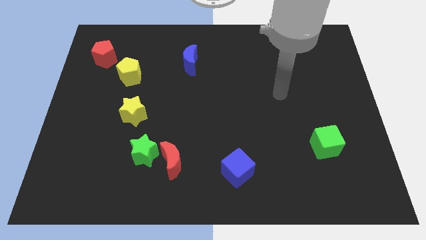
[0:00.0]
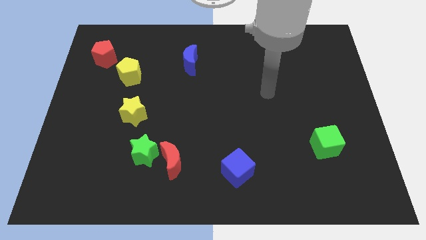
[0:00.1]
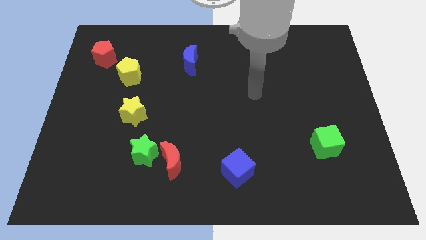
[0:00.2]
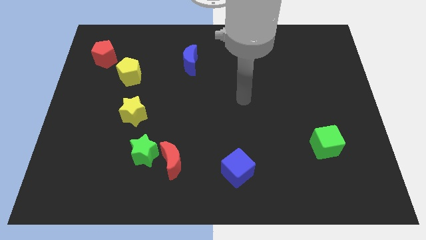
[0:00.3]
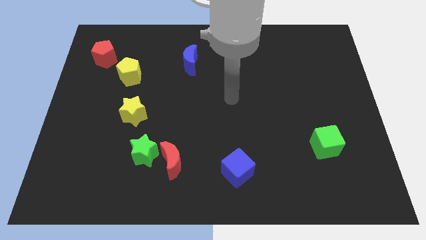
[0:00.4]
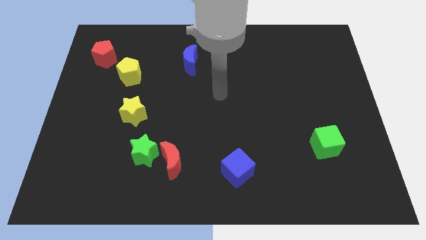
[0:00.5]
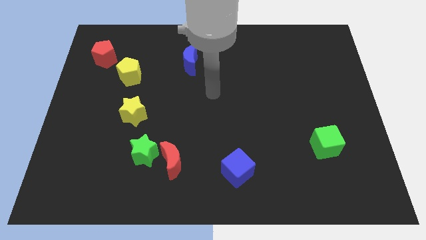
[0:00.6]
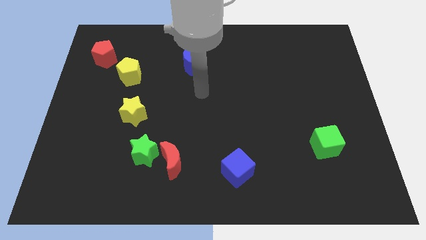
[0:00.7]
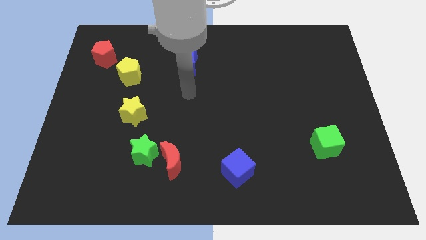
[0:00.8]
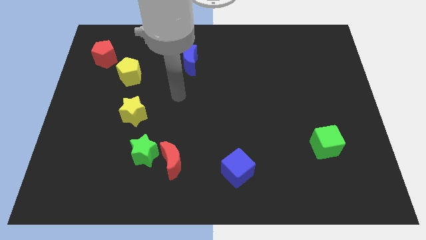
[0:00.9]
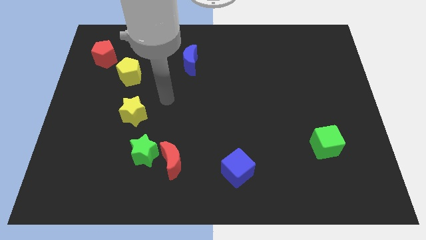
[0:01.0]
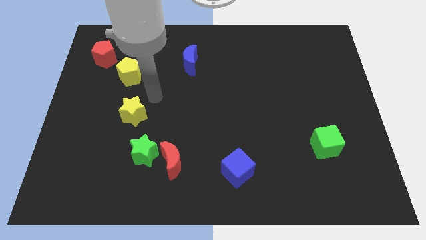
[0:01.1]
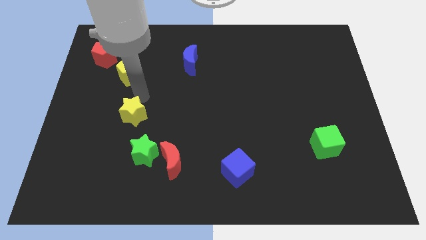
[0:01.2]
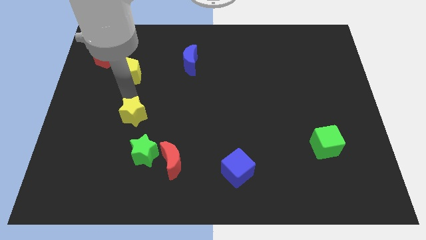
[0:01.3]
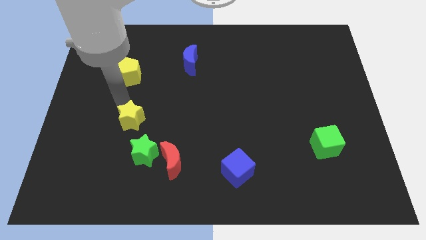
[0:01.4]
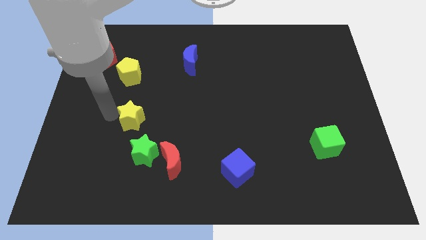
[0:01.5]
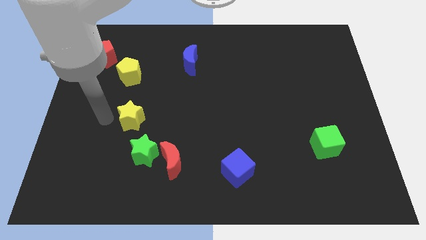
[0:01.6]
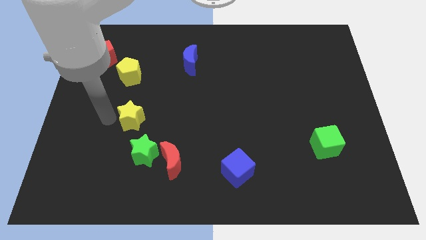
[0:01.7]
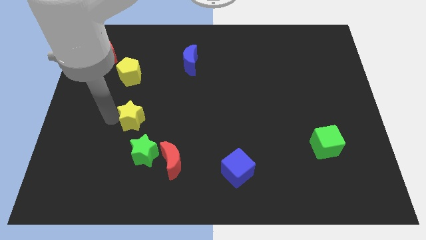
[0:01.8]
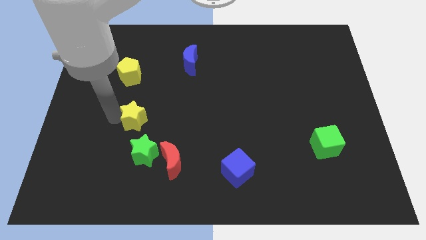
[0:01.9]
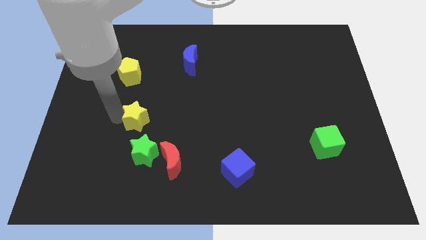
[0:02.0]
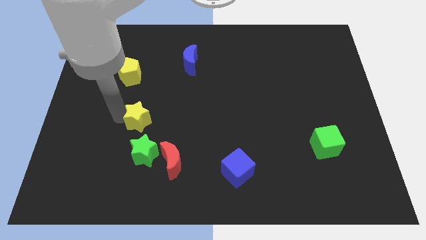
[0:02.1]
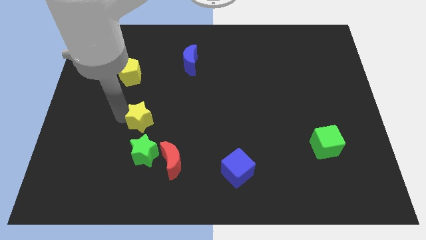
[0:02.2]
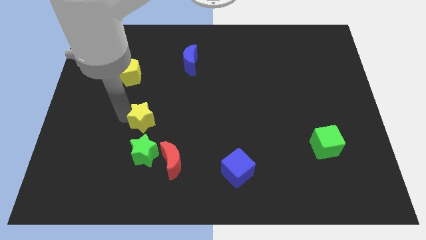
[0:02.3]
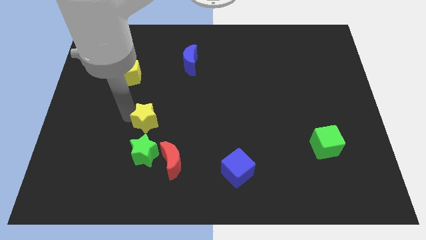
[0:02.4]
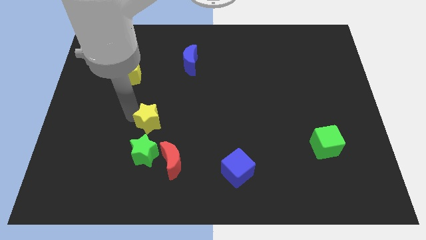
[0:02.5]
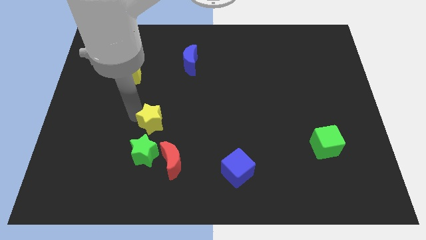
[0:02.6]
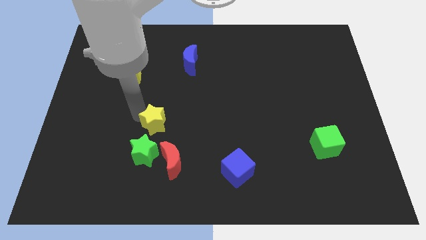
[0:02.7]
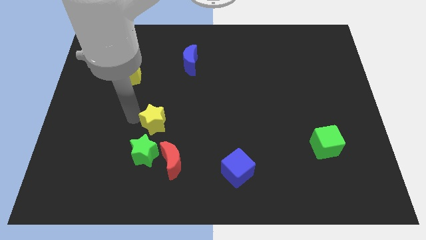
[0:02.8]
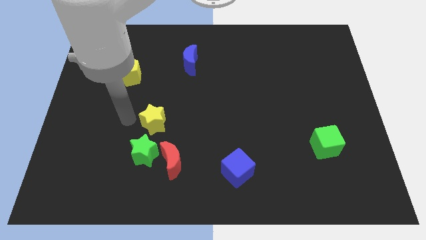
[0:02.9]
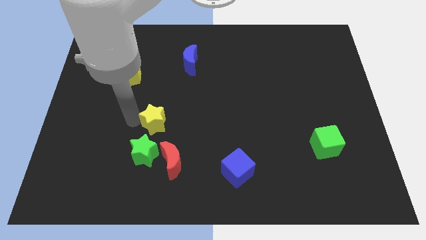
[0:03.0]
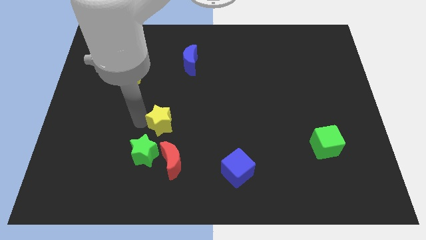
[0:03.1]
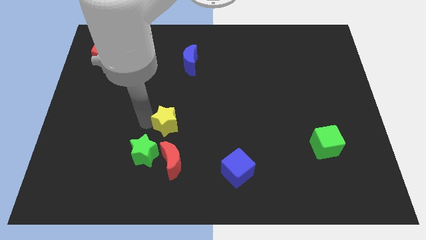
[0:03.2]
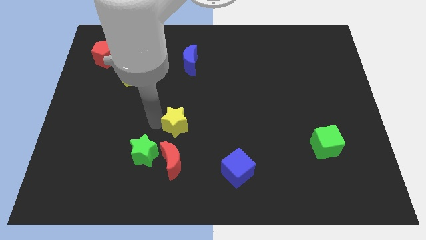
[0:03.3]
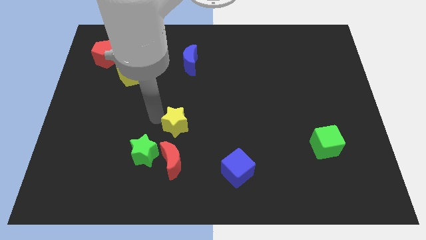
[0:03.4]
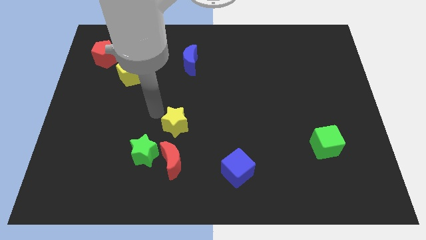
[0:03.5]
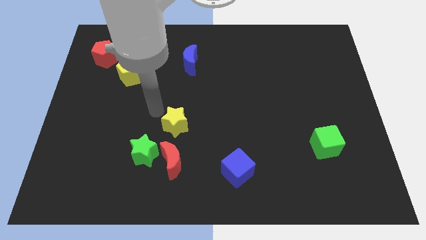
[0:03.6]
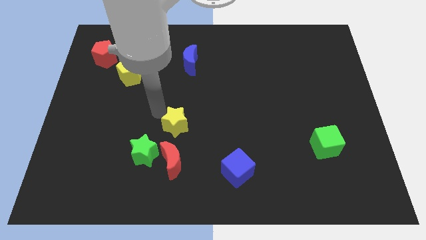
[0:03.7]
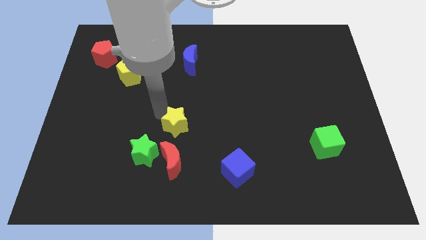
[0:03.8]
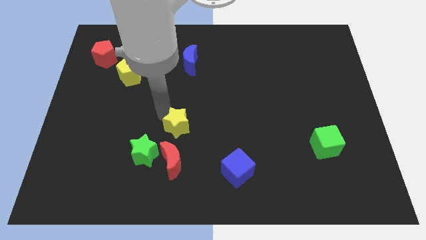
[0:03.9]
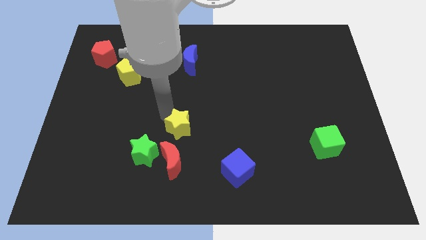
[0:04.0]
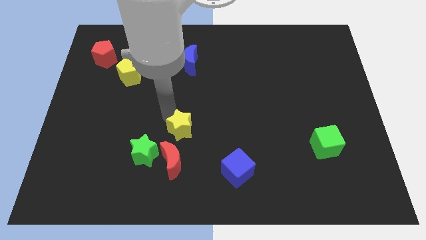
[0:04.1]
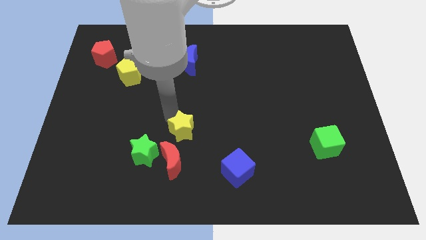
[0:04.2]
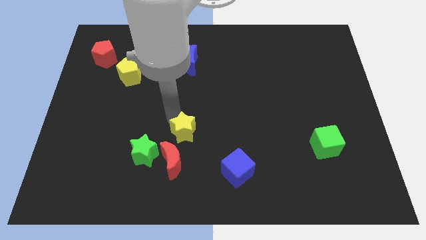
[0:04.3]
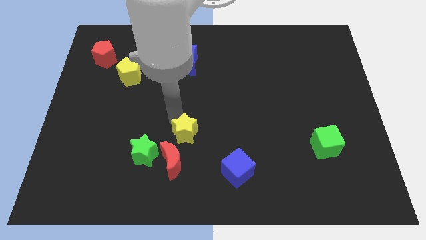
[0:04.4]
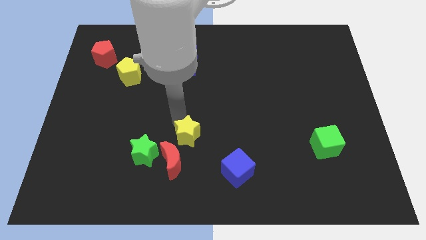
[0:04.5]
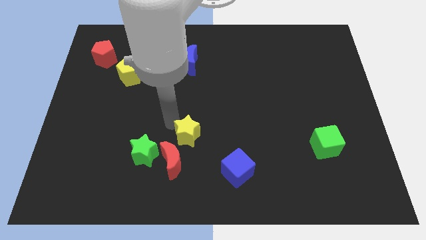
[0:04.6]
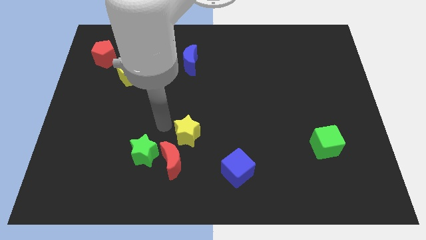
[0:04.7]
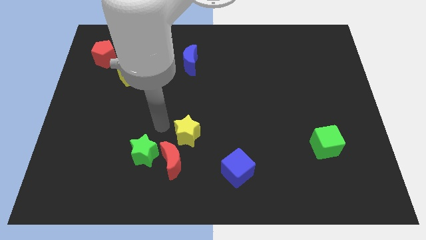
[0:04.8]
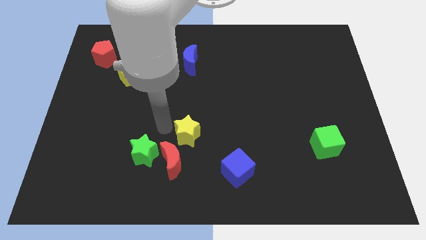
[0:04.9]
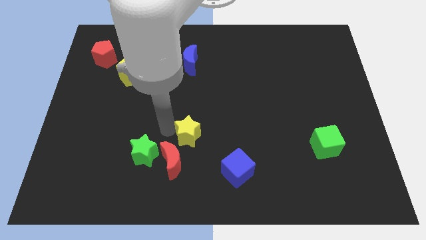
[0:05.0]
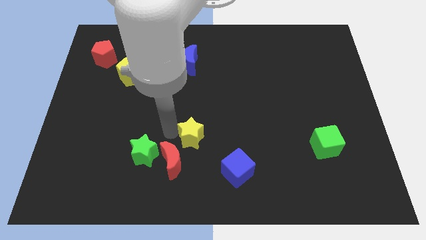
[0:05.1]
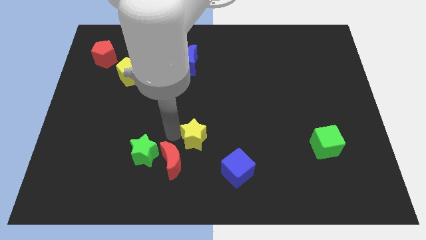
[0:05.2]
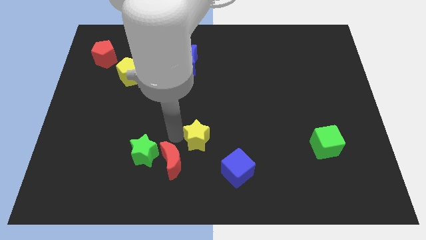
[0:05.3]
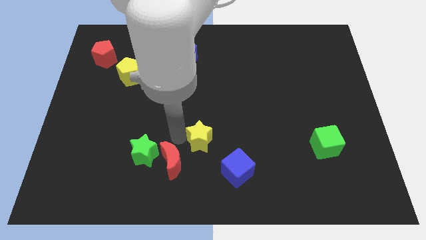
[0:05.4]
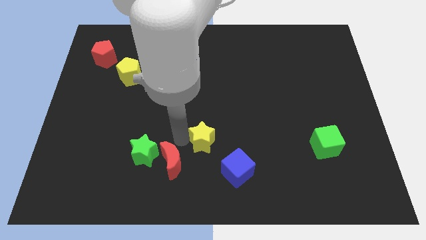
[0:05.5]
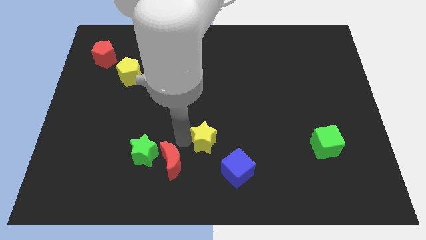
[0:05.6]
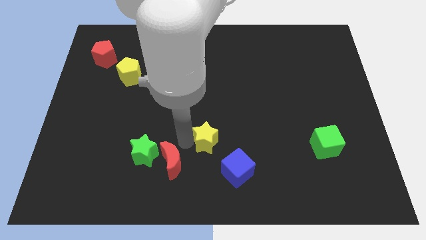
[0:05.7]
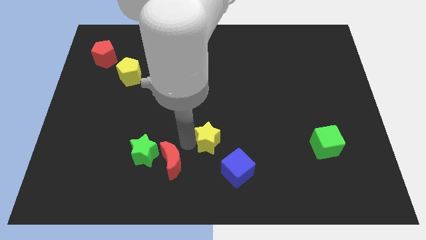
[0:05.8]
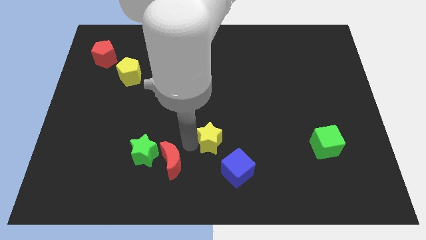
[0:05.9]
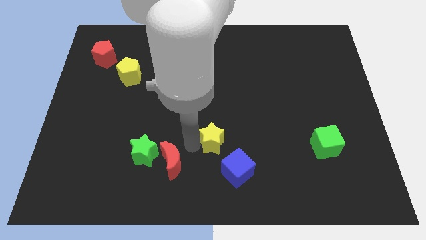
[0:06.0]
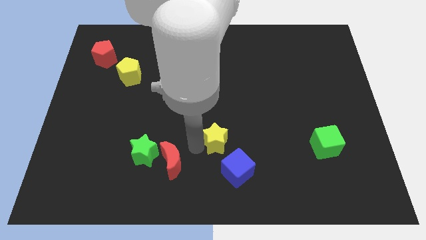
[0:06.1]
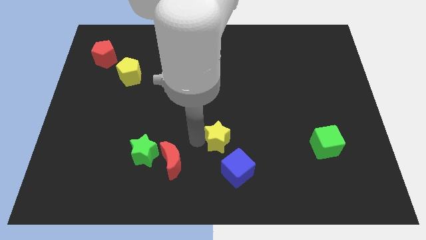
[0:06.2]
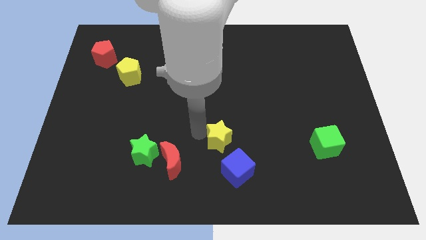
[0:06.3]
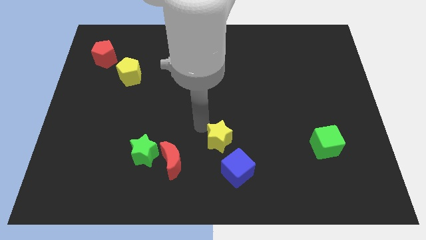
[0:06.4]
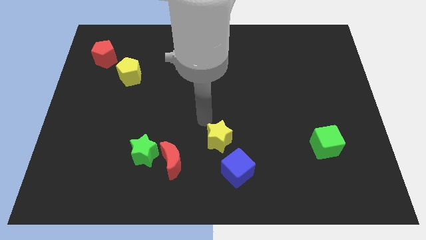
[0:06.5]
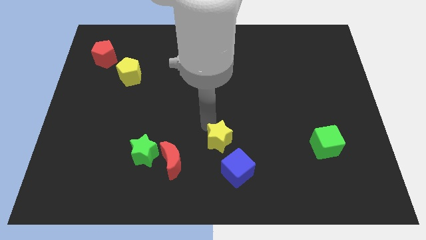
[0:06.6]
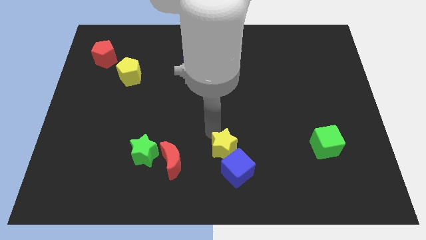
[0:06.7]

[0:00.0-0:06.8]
push the yellow star to the blue cube
